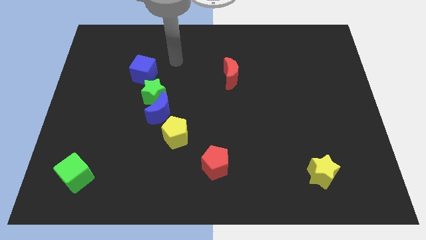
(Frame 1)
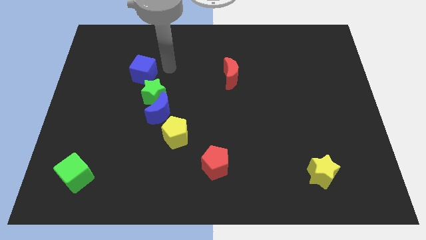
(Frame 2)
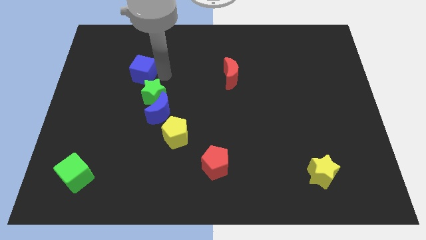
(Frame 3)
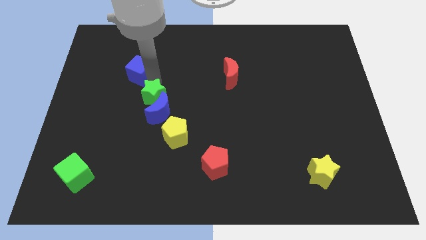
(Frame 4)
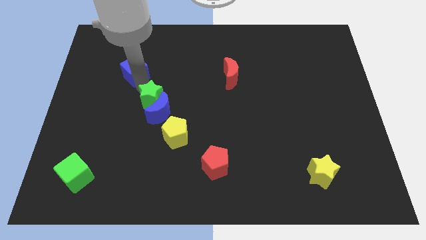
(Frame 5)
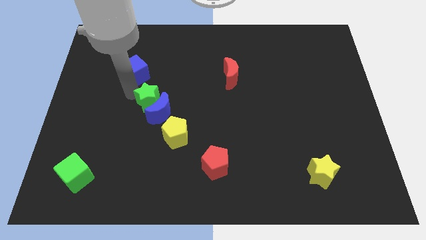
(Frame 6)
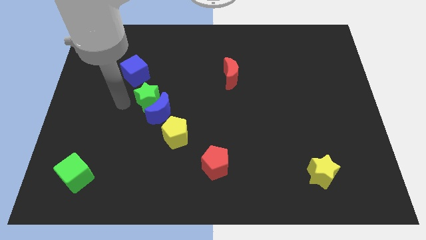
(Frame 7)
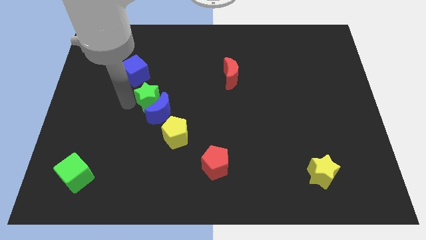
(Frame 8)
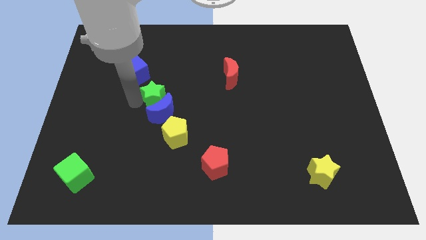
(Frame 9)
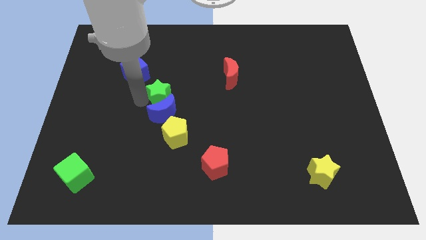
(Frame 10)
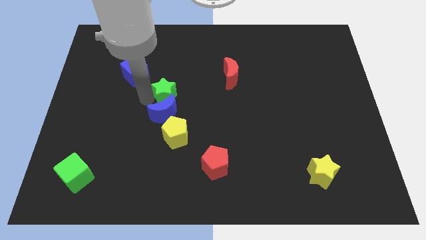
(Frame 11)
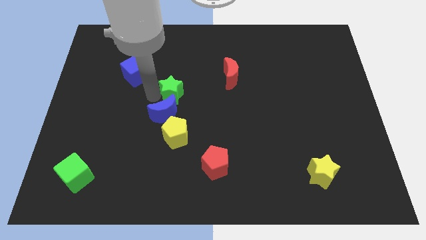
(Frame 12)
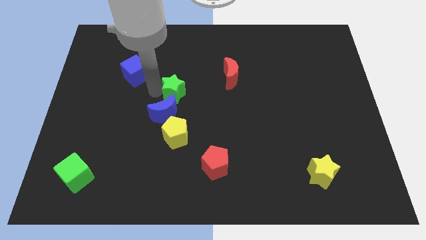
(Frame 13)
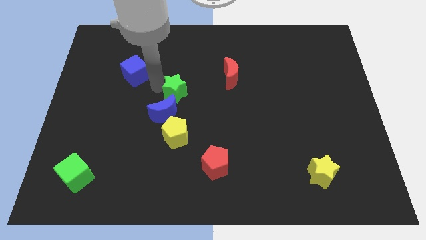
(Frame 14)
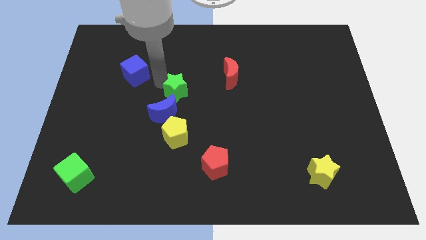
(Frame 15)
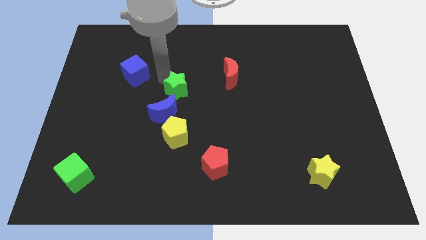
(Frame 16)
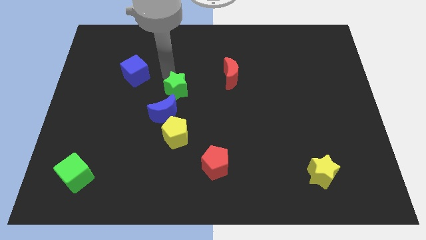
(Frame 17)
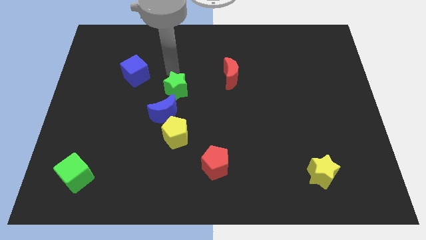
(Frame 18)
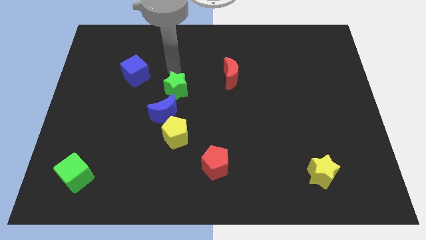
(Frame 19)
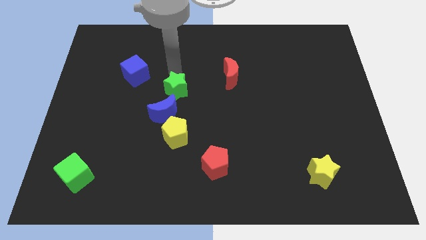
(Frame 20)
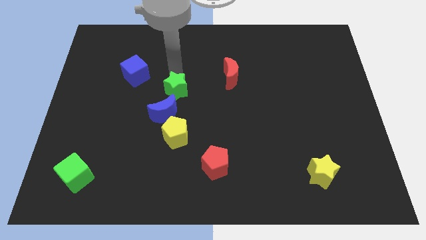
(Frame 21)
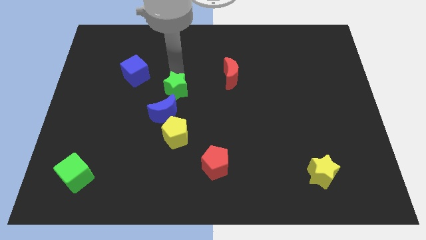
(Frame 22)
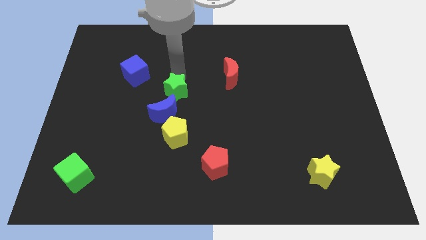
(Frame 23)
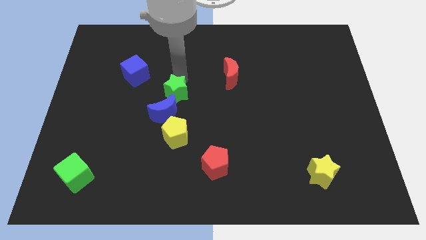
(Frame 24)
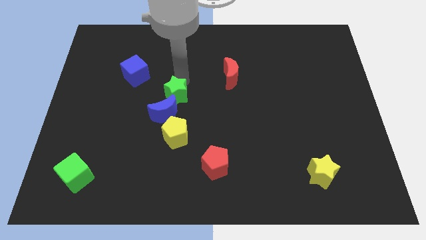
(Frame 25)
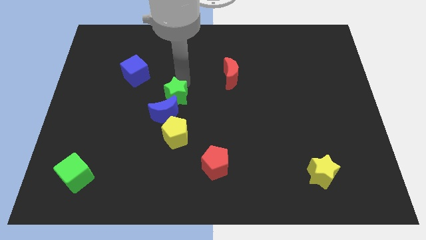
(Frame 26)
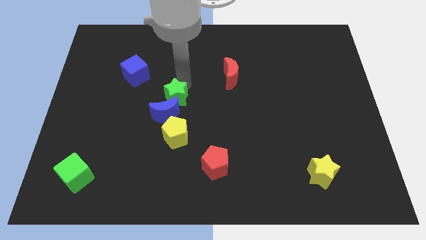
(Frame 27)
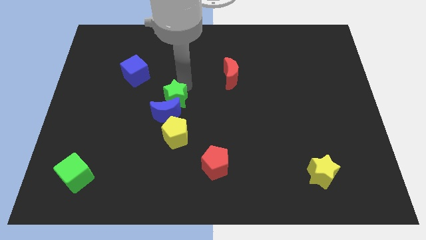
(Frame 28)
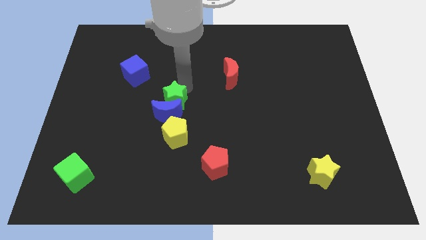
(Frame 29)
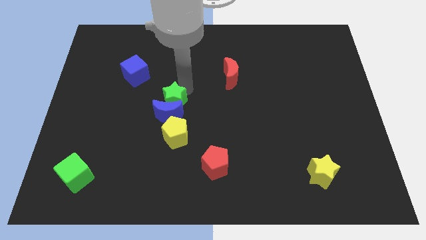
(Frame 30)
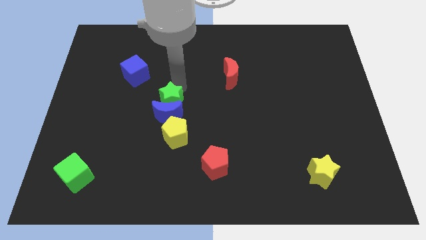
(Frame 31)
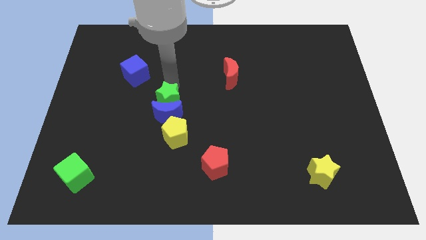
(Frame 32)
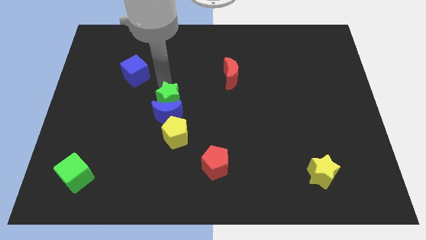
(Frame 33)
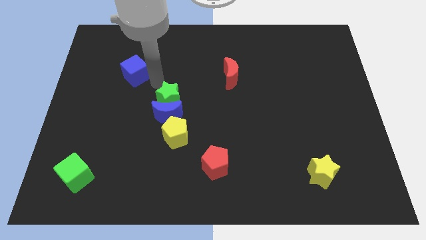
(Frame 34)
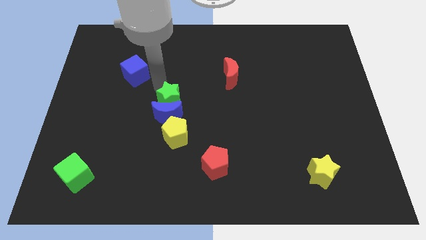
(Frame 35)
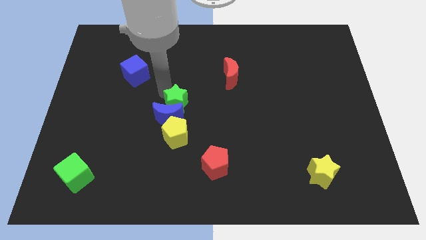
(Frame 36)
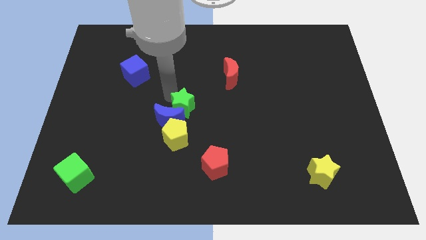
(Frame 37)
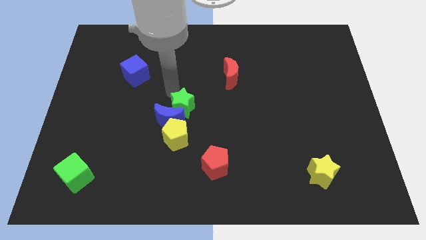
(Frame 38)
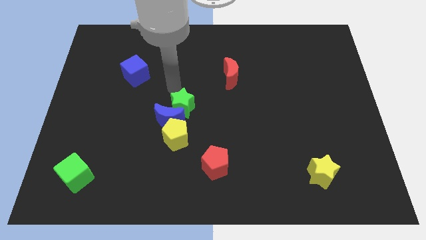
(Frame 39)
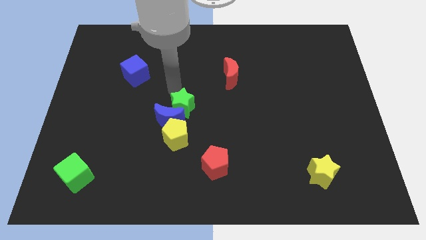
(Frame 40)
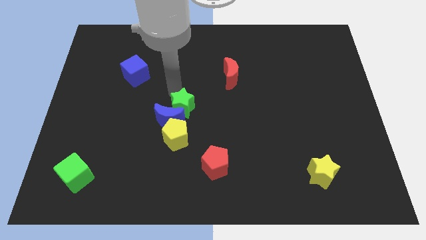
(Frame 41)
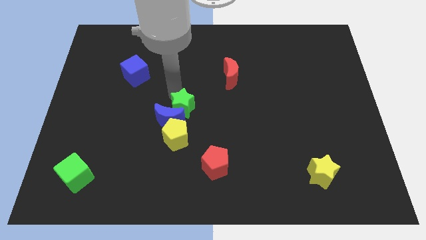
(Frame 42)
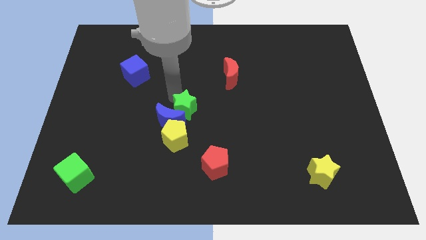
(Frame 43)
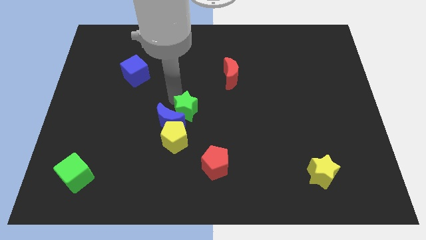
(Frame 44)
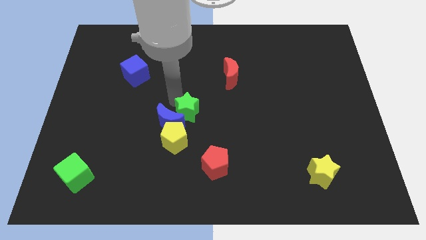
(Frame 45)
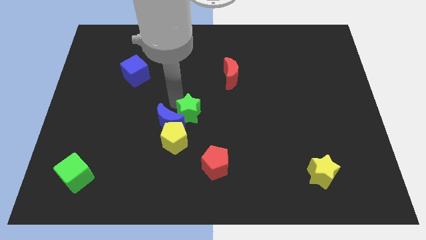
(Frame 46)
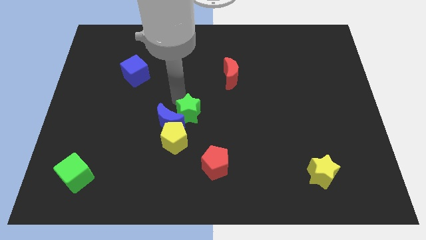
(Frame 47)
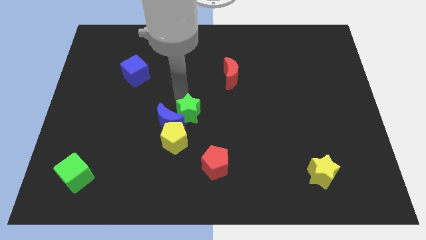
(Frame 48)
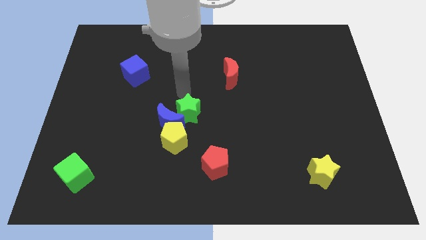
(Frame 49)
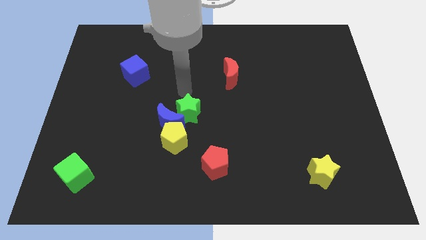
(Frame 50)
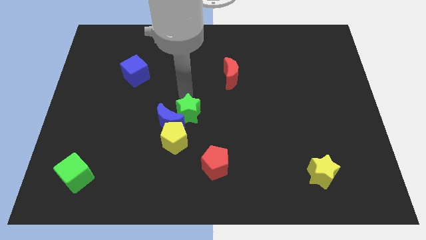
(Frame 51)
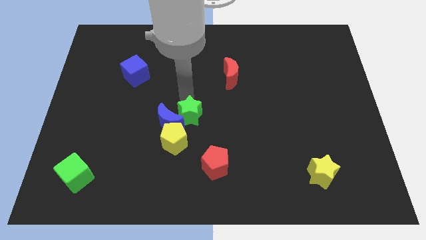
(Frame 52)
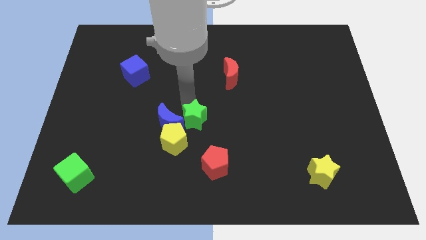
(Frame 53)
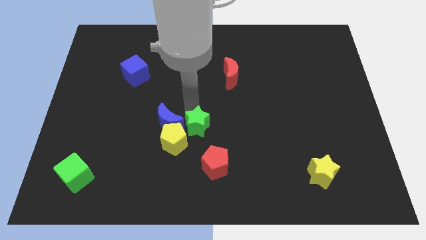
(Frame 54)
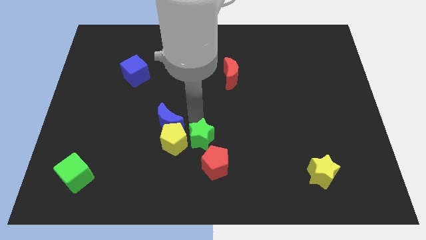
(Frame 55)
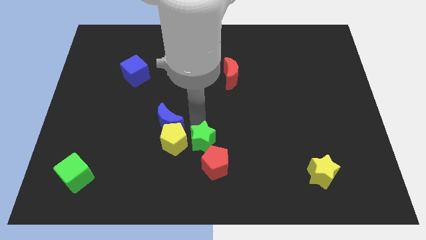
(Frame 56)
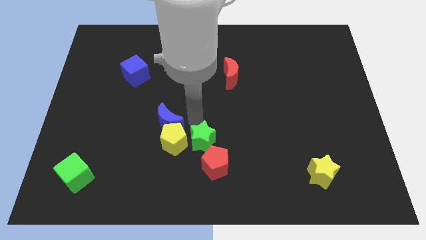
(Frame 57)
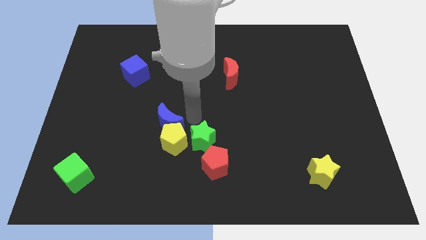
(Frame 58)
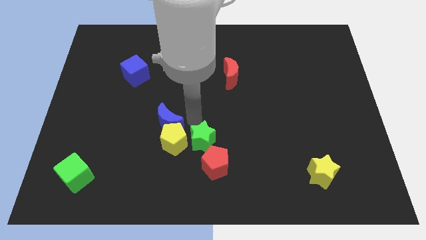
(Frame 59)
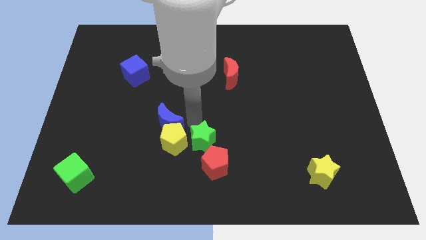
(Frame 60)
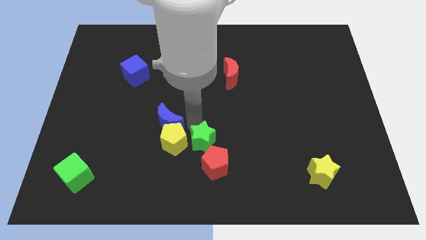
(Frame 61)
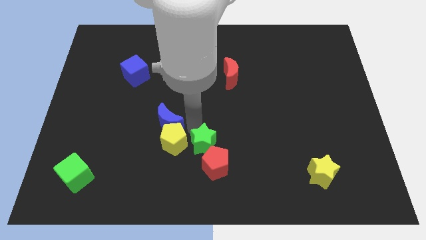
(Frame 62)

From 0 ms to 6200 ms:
move the green star to the red pentagon

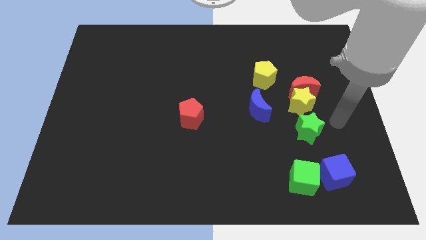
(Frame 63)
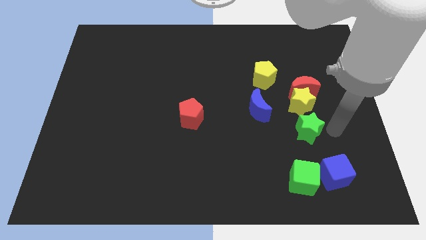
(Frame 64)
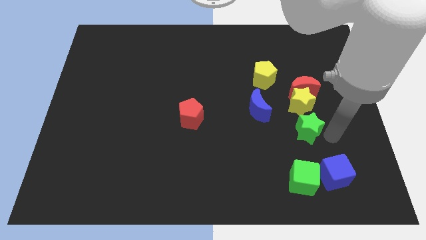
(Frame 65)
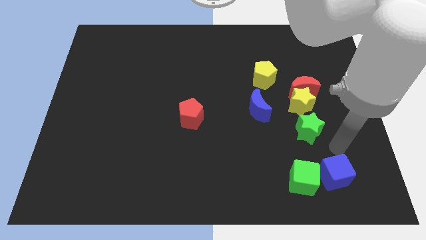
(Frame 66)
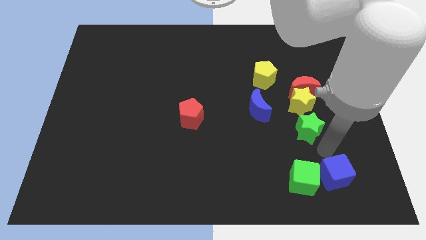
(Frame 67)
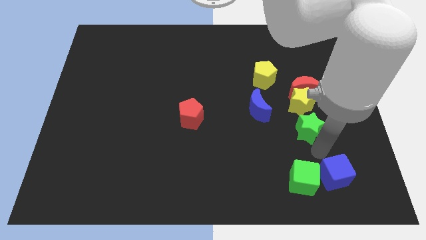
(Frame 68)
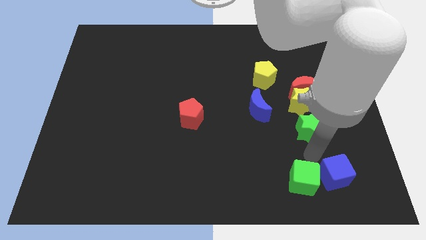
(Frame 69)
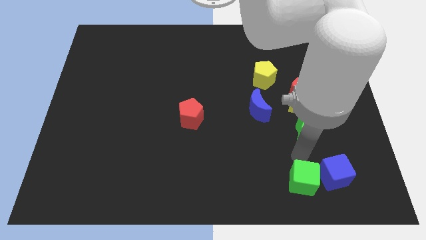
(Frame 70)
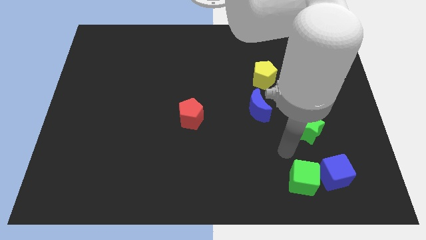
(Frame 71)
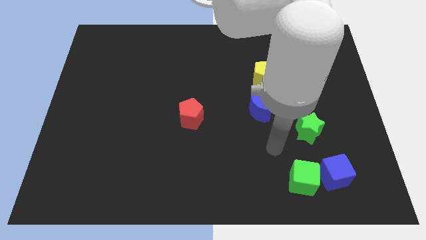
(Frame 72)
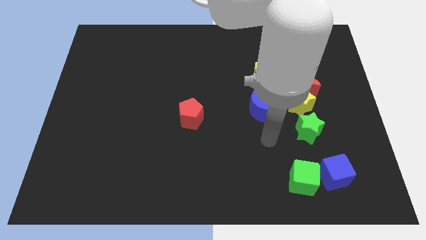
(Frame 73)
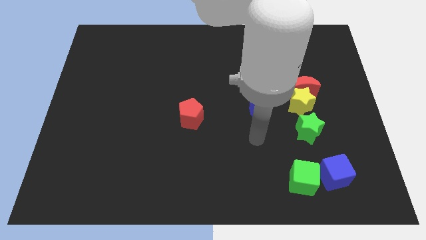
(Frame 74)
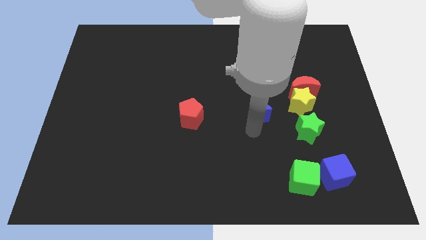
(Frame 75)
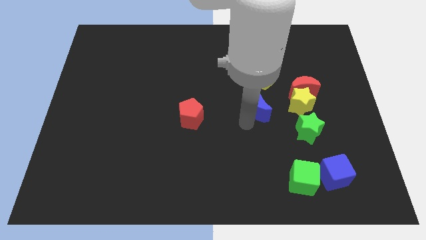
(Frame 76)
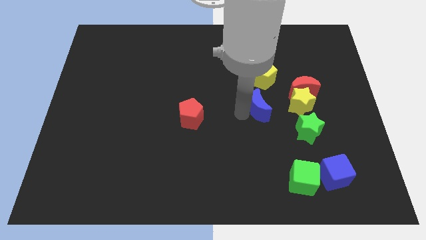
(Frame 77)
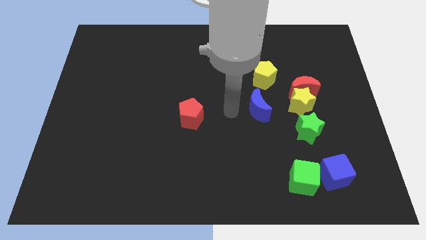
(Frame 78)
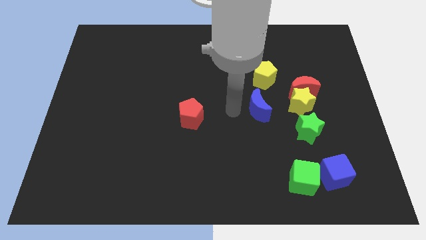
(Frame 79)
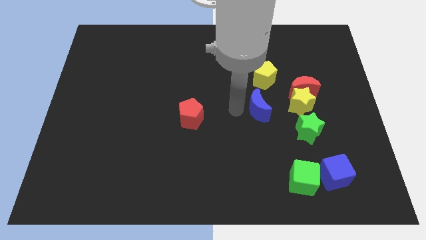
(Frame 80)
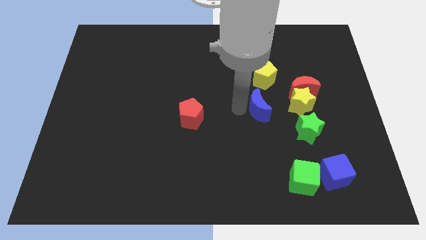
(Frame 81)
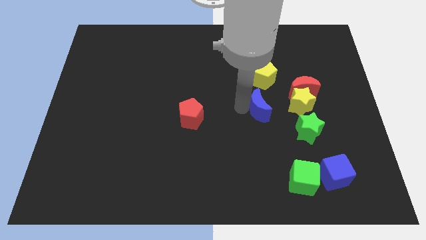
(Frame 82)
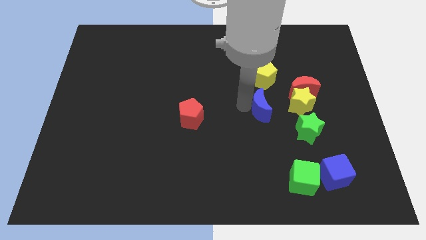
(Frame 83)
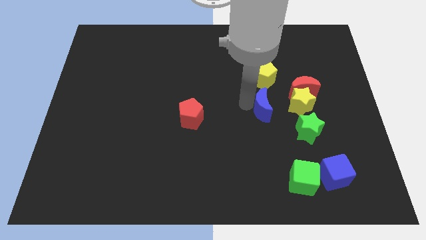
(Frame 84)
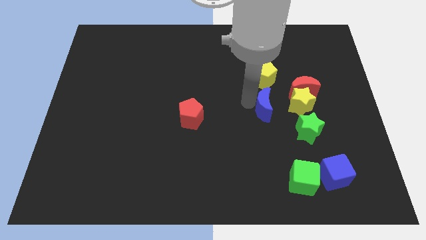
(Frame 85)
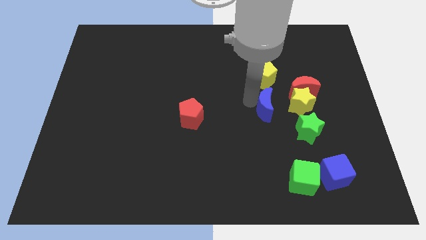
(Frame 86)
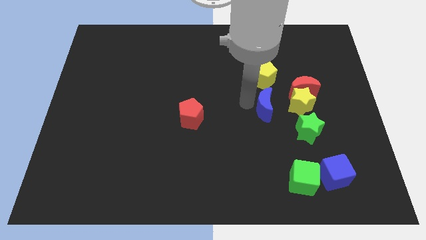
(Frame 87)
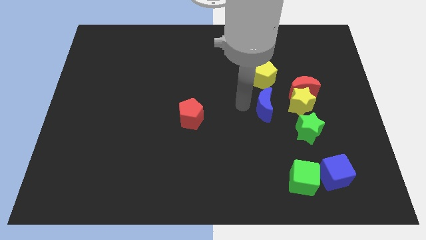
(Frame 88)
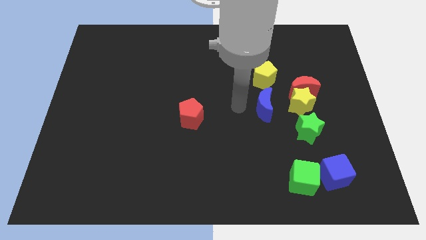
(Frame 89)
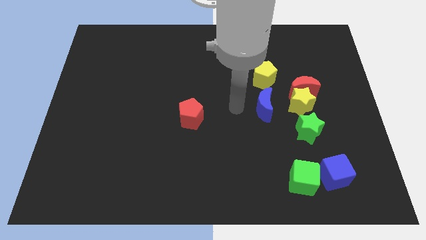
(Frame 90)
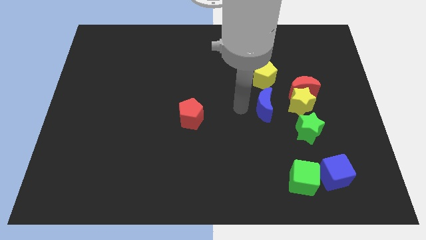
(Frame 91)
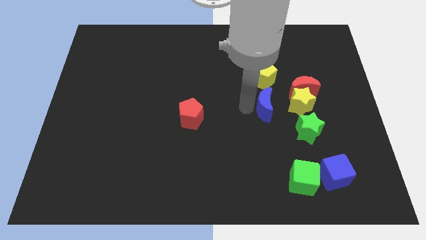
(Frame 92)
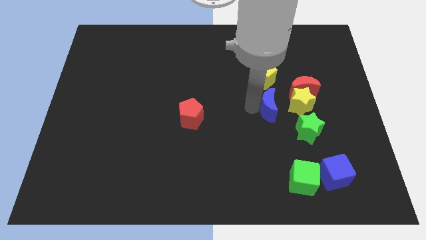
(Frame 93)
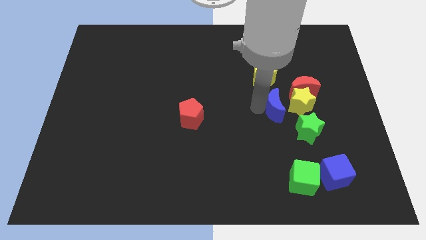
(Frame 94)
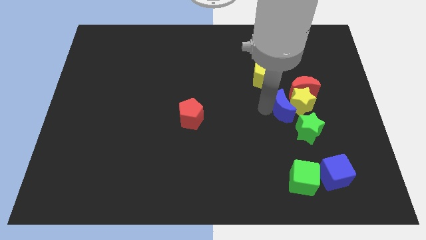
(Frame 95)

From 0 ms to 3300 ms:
push the blue moon towards the yellow star
